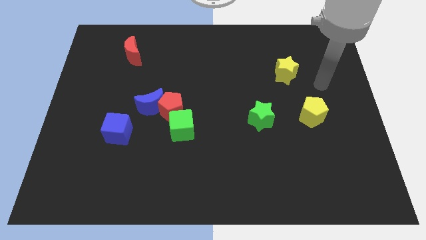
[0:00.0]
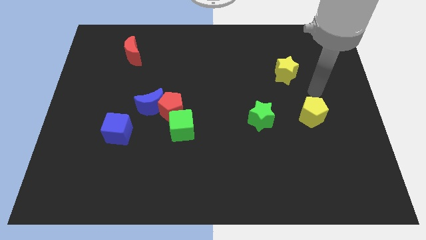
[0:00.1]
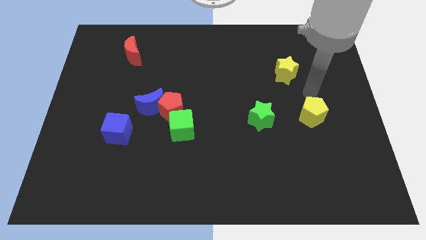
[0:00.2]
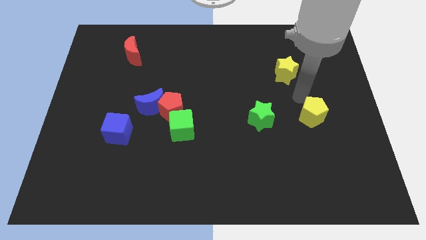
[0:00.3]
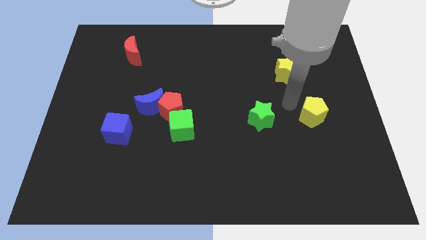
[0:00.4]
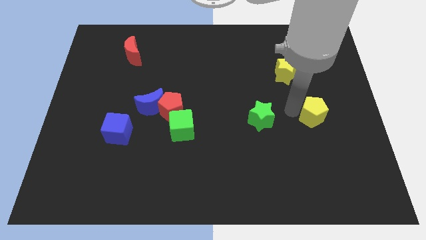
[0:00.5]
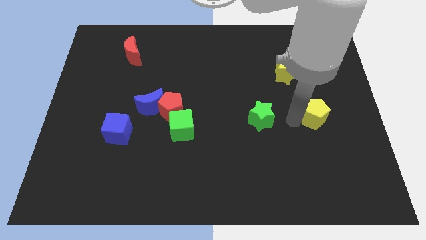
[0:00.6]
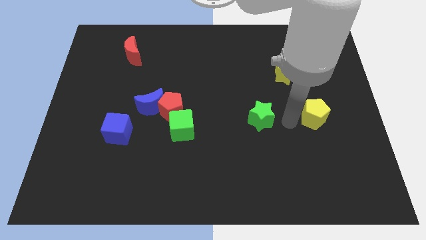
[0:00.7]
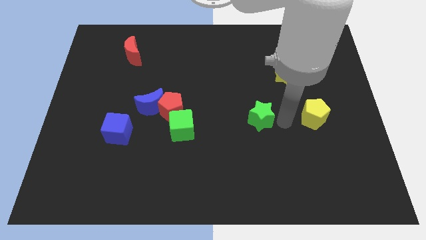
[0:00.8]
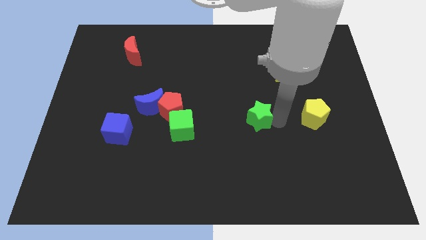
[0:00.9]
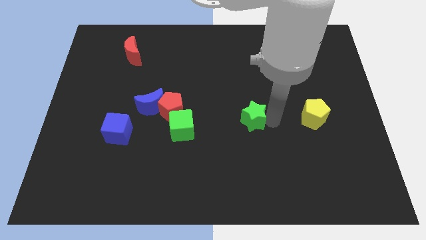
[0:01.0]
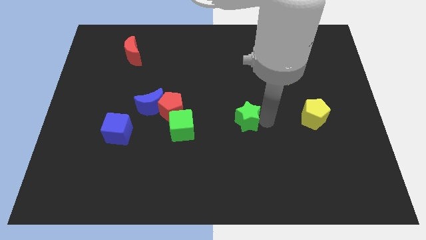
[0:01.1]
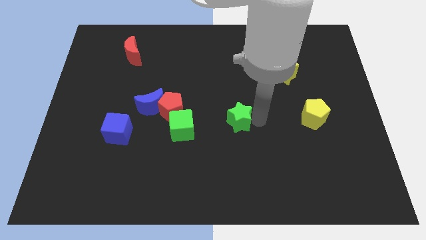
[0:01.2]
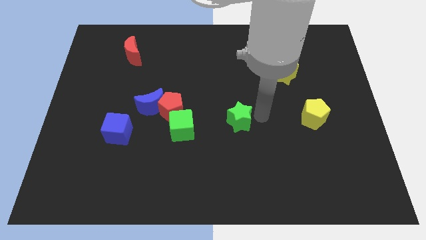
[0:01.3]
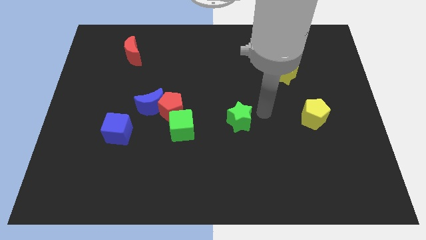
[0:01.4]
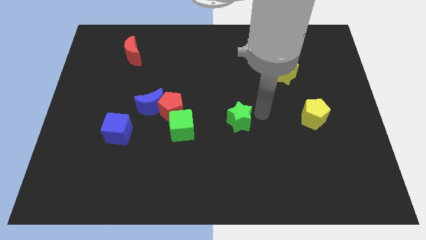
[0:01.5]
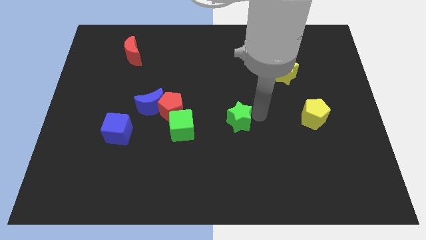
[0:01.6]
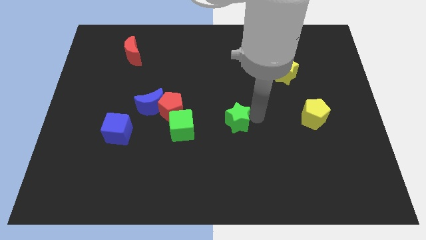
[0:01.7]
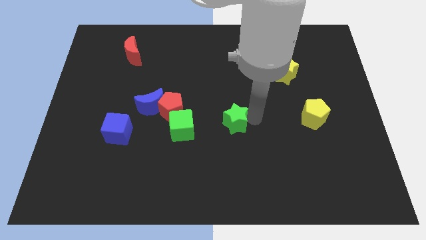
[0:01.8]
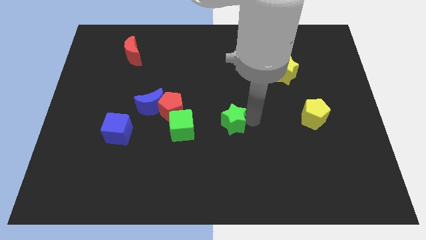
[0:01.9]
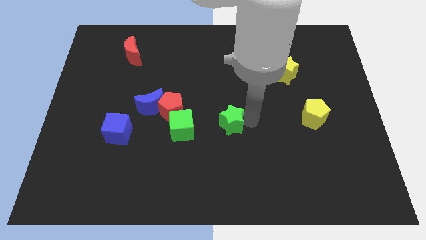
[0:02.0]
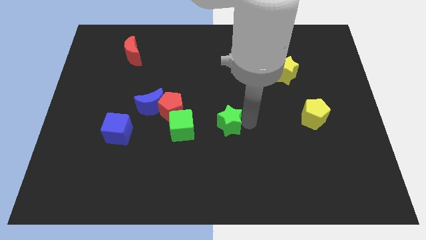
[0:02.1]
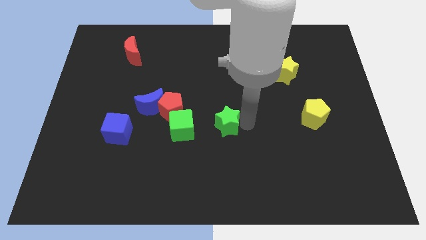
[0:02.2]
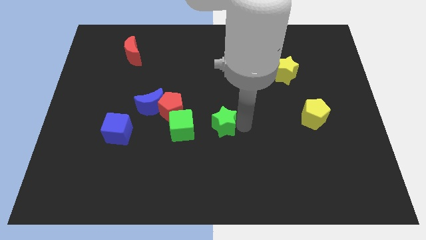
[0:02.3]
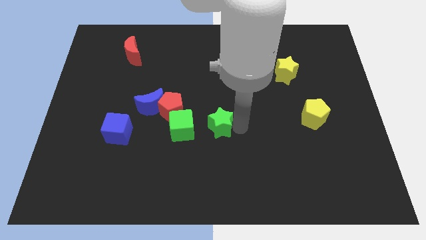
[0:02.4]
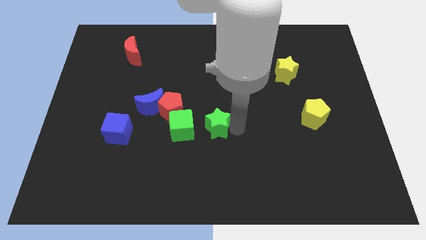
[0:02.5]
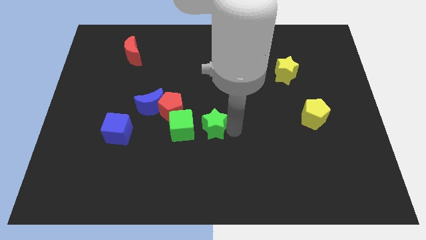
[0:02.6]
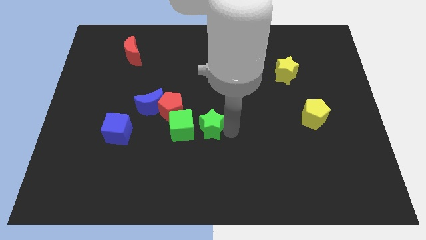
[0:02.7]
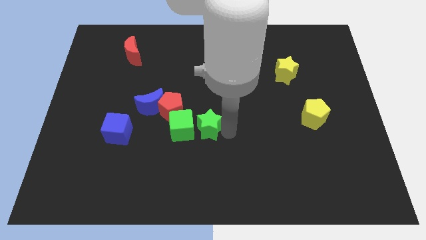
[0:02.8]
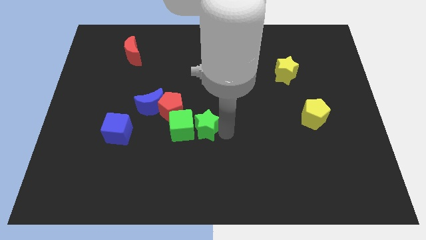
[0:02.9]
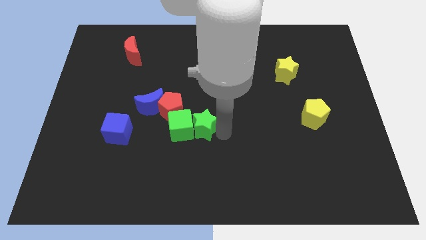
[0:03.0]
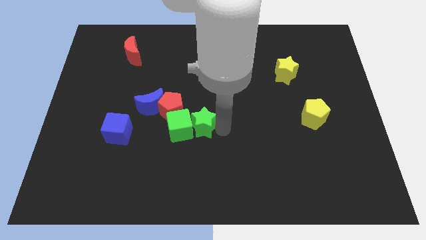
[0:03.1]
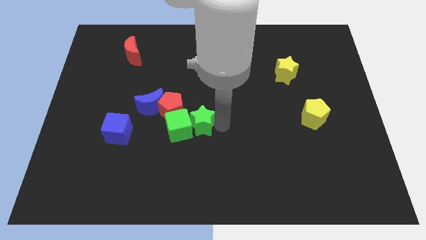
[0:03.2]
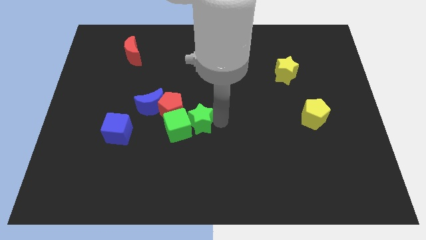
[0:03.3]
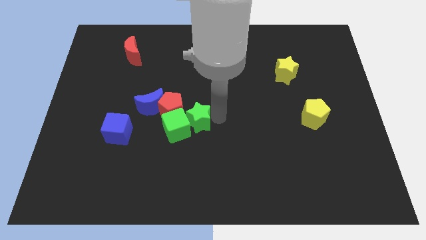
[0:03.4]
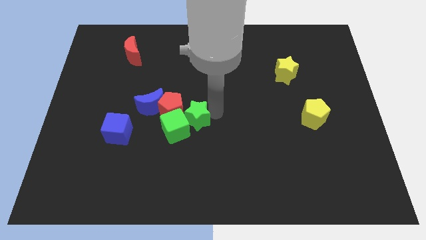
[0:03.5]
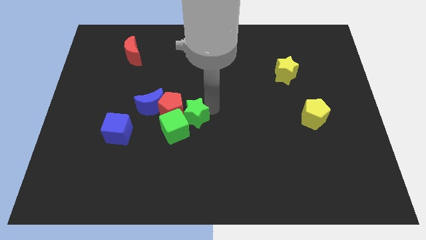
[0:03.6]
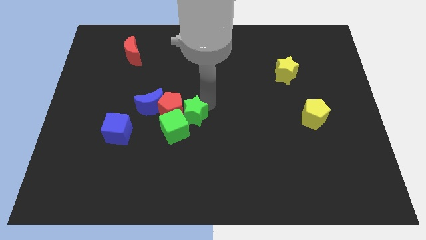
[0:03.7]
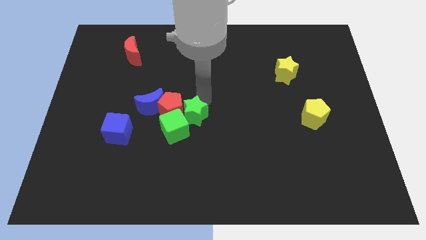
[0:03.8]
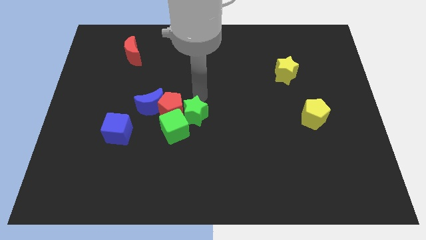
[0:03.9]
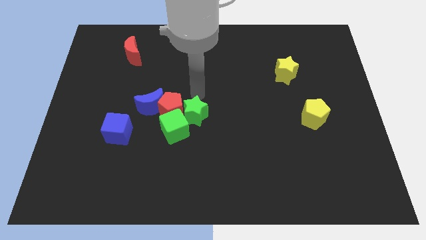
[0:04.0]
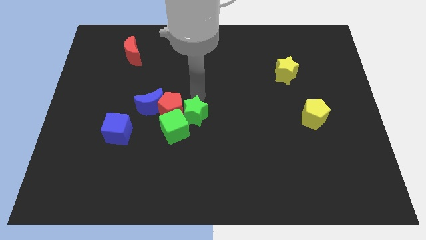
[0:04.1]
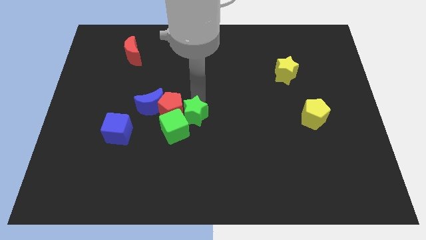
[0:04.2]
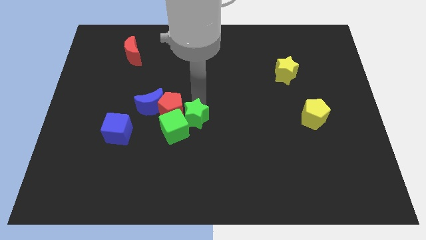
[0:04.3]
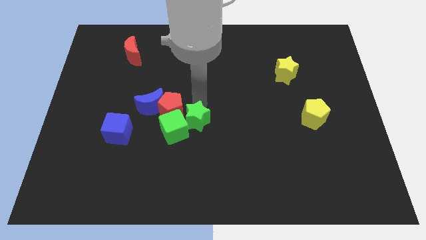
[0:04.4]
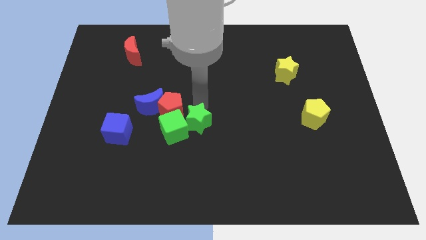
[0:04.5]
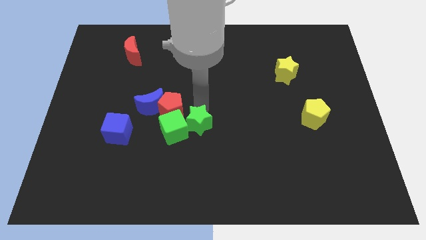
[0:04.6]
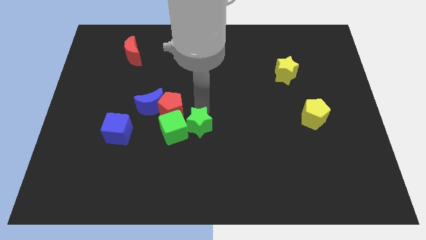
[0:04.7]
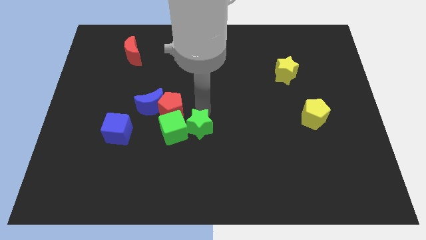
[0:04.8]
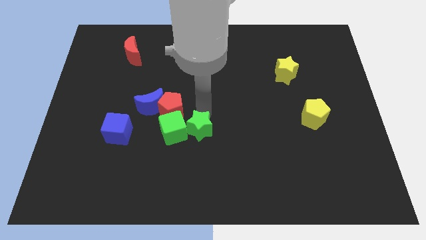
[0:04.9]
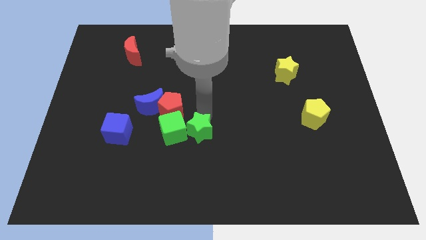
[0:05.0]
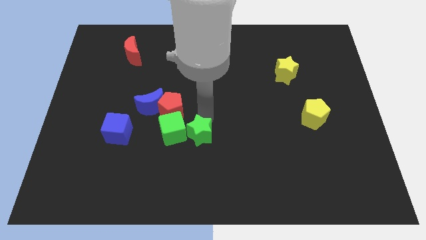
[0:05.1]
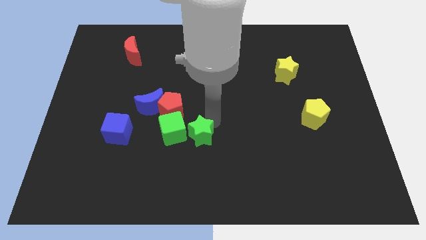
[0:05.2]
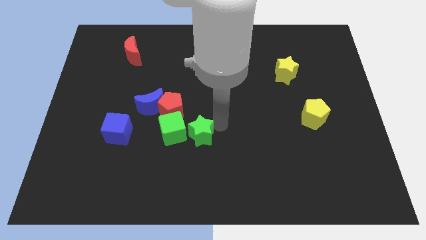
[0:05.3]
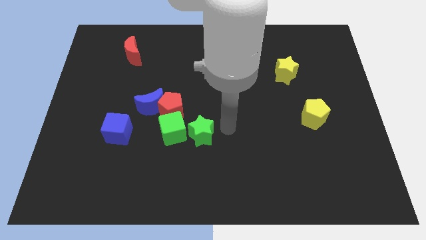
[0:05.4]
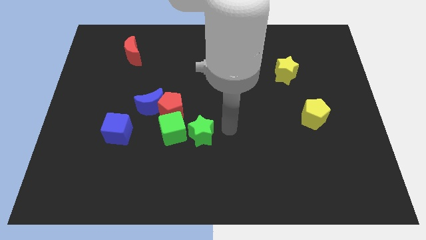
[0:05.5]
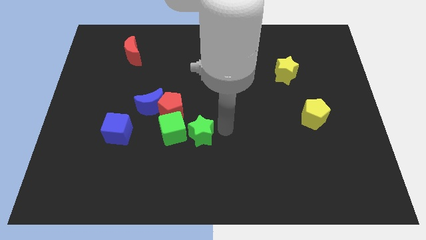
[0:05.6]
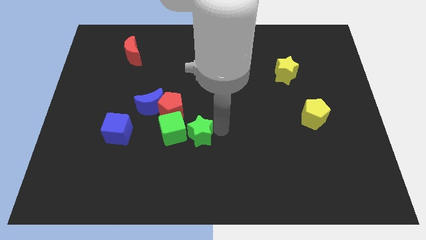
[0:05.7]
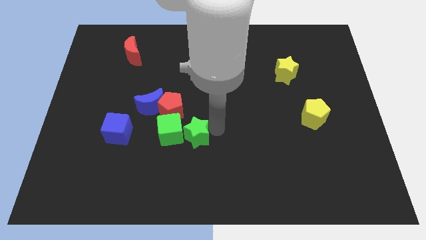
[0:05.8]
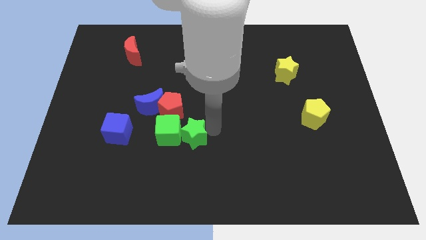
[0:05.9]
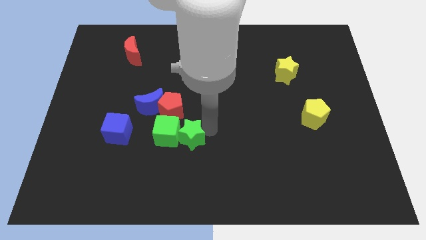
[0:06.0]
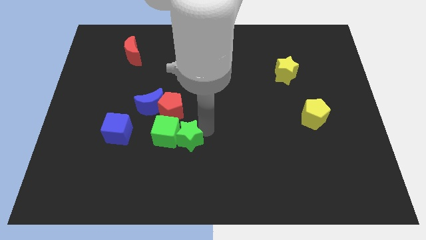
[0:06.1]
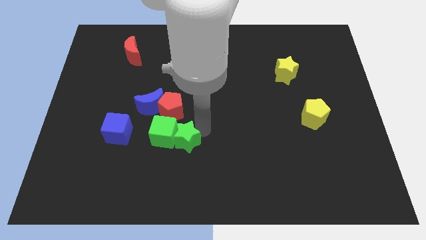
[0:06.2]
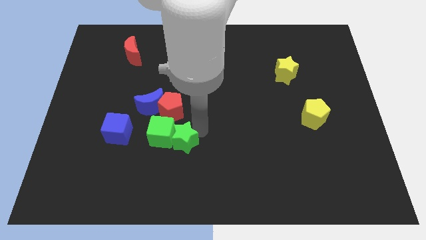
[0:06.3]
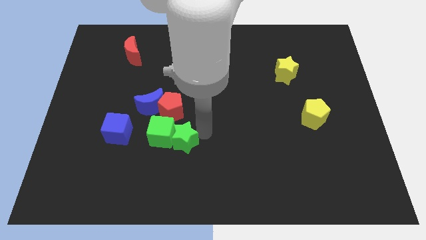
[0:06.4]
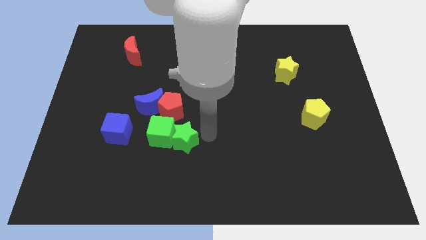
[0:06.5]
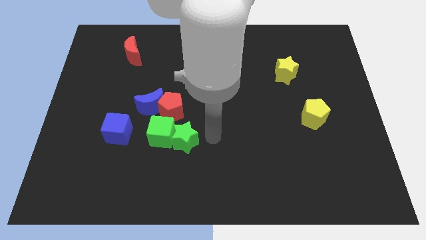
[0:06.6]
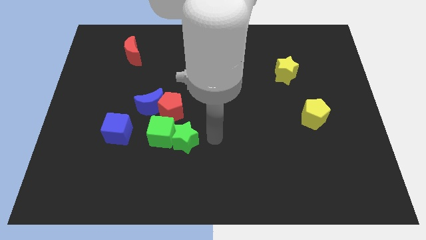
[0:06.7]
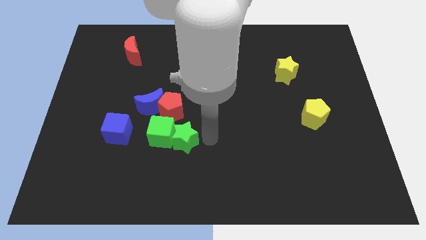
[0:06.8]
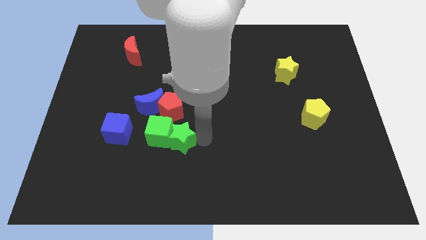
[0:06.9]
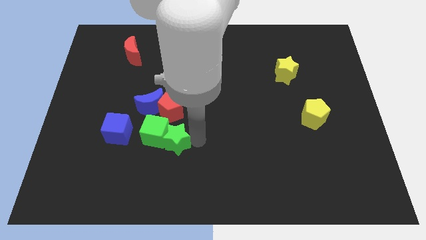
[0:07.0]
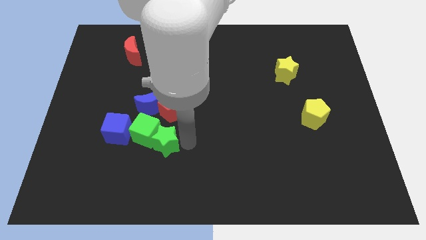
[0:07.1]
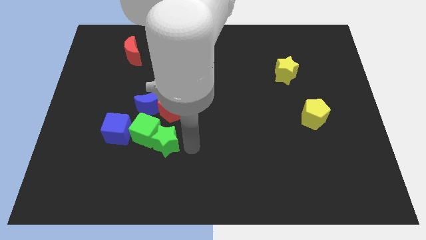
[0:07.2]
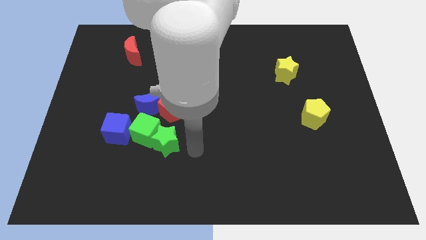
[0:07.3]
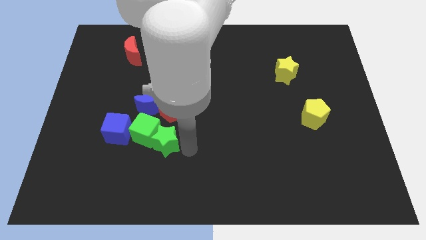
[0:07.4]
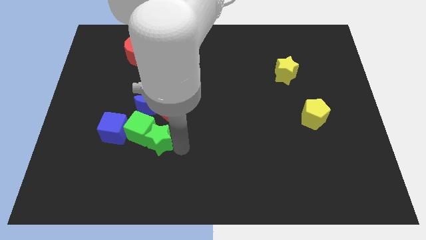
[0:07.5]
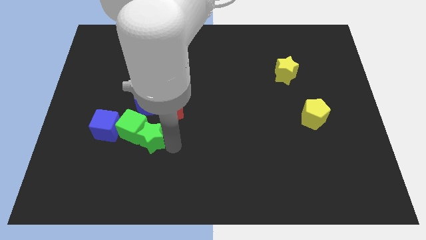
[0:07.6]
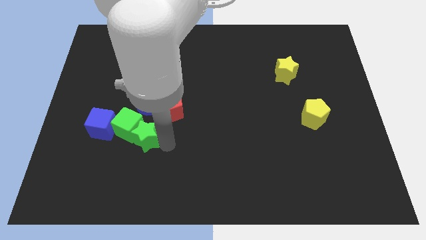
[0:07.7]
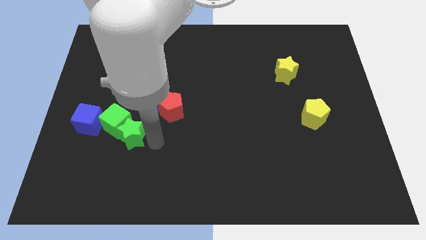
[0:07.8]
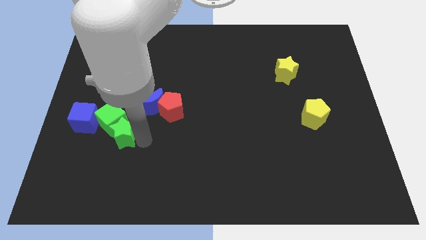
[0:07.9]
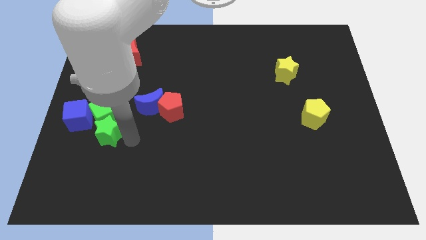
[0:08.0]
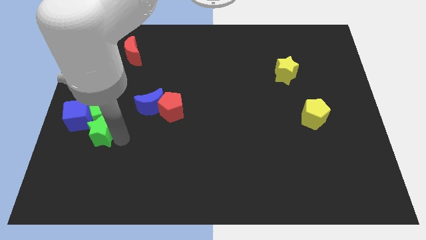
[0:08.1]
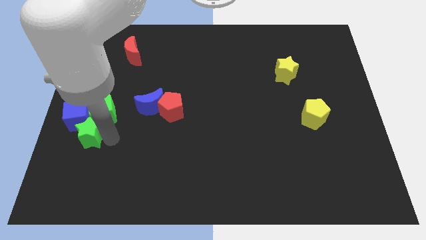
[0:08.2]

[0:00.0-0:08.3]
put the green star next to the blue cube
